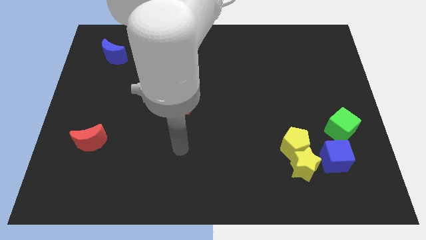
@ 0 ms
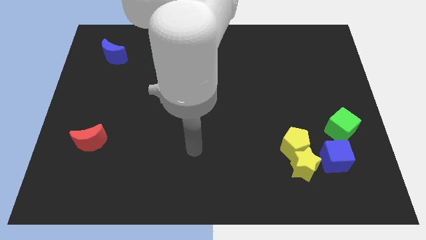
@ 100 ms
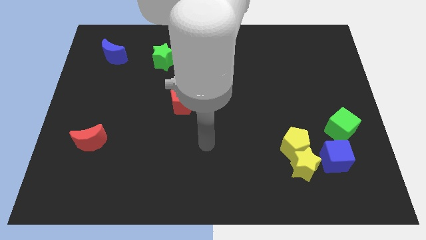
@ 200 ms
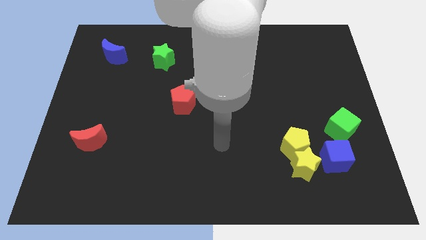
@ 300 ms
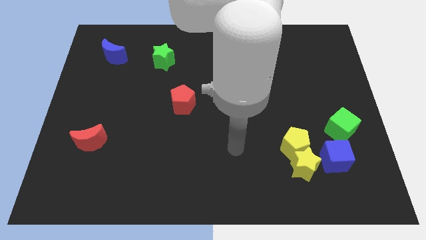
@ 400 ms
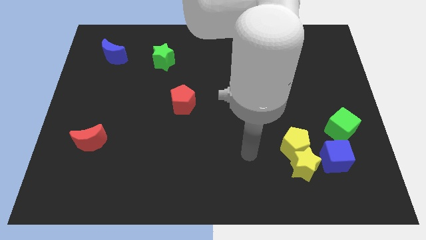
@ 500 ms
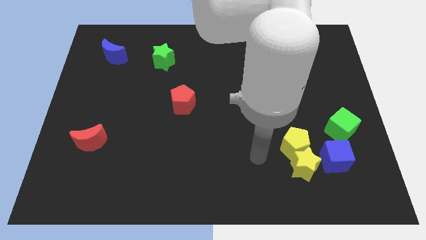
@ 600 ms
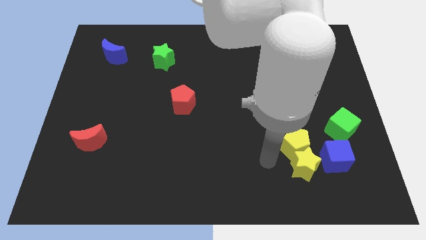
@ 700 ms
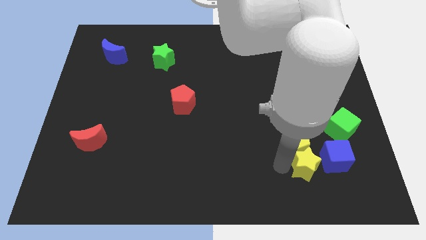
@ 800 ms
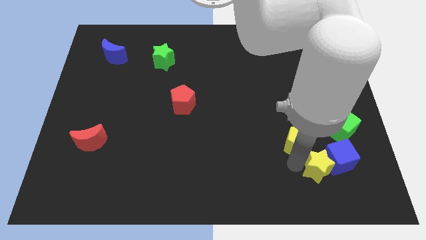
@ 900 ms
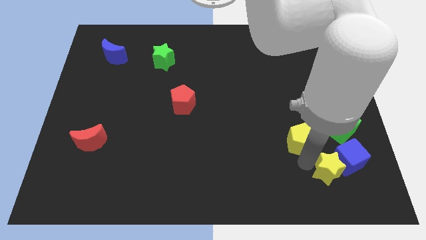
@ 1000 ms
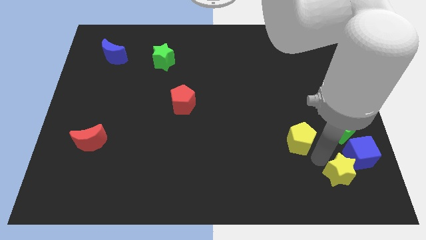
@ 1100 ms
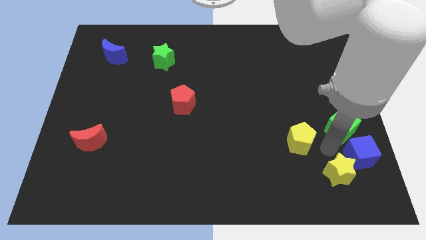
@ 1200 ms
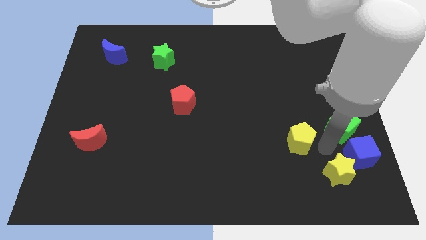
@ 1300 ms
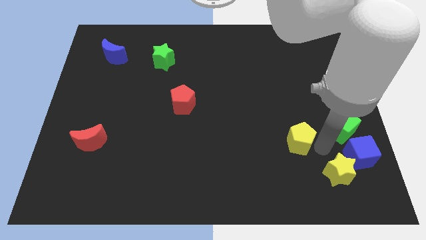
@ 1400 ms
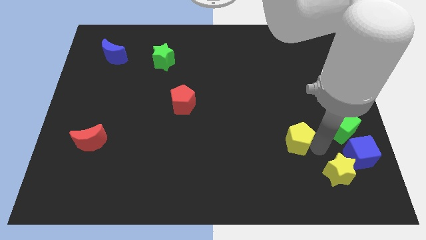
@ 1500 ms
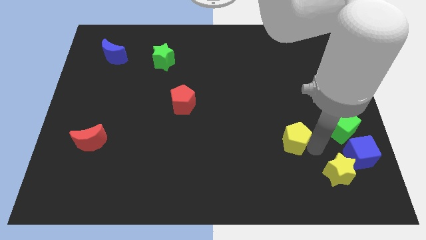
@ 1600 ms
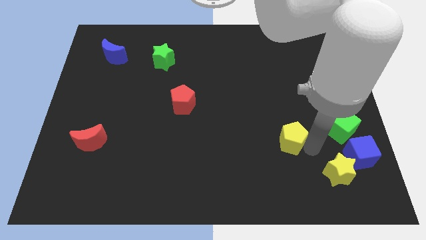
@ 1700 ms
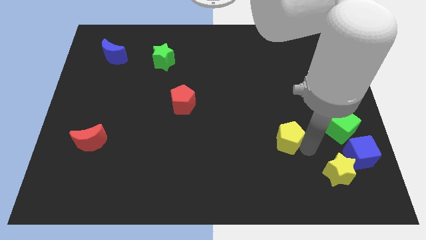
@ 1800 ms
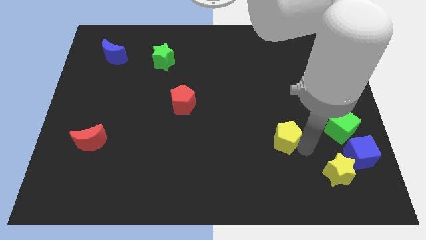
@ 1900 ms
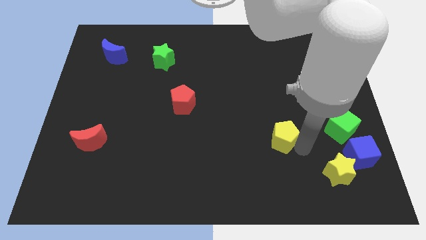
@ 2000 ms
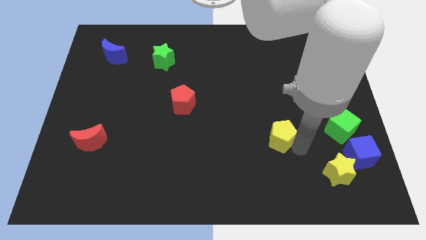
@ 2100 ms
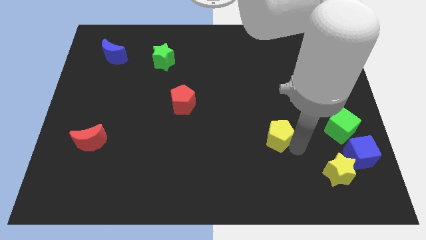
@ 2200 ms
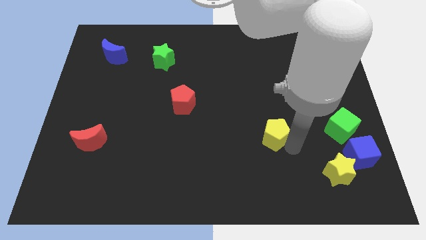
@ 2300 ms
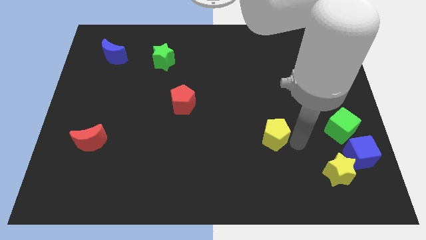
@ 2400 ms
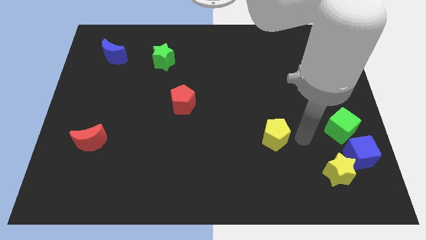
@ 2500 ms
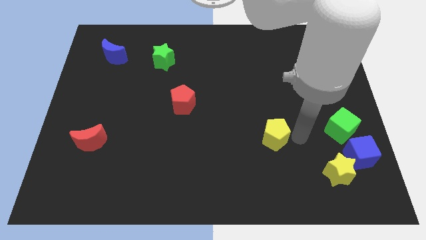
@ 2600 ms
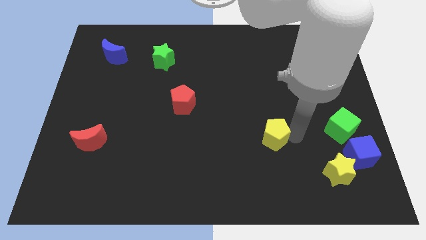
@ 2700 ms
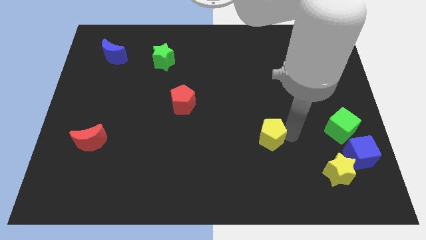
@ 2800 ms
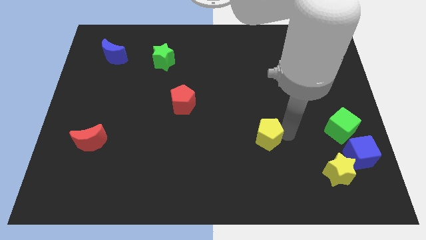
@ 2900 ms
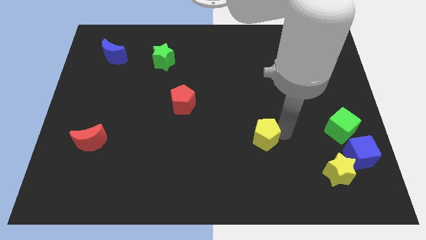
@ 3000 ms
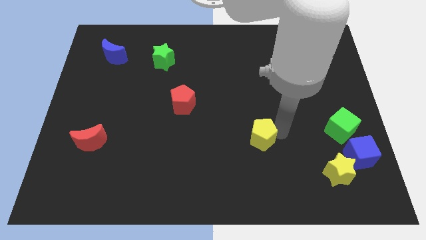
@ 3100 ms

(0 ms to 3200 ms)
slightly push the yellow pentagon left

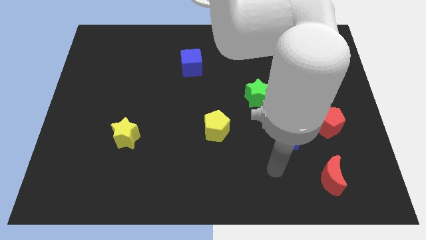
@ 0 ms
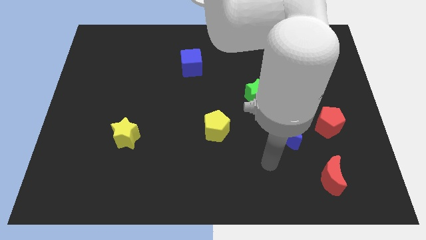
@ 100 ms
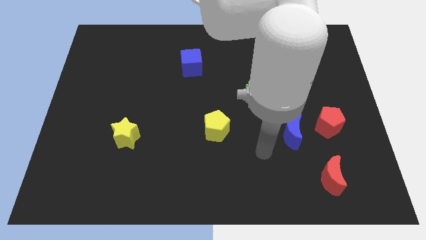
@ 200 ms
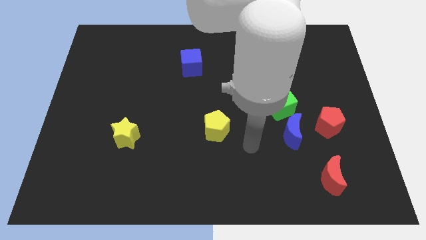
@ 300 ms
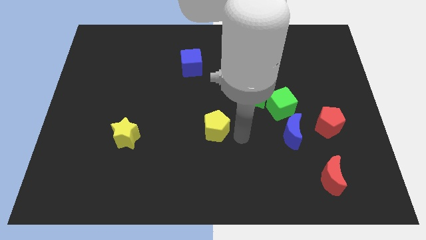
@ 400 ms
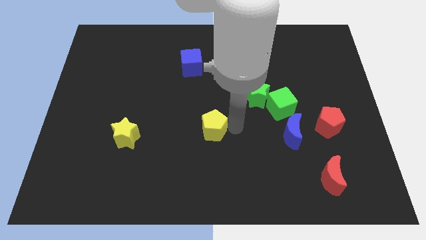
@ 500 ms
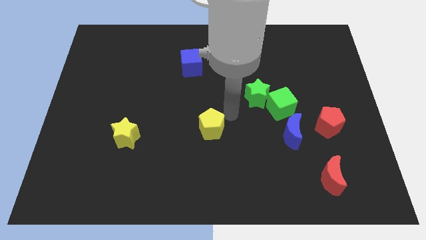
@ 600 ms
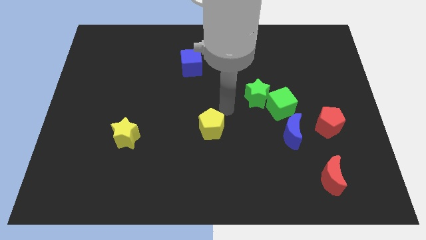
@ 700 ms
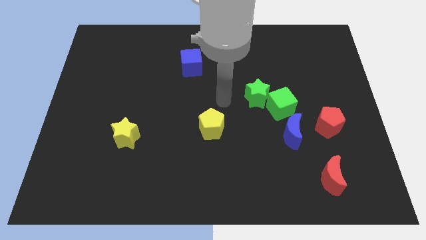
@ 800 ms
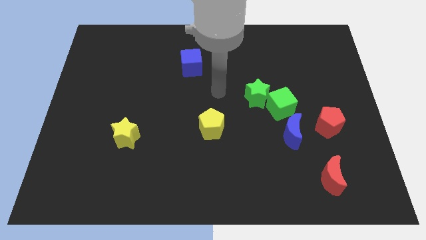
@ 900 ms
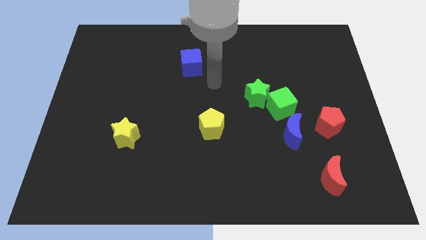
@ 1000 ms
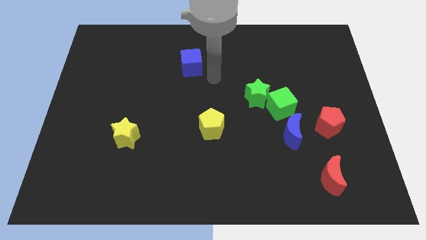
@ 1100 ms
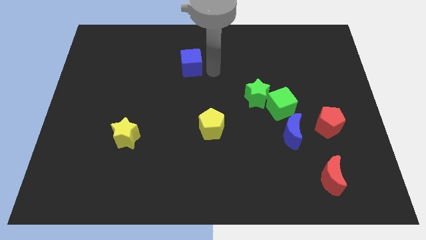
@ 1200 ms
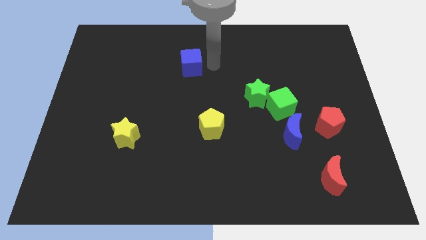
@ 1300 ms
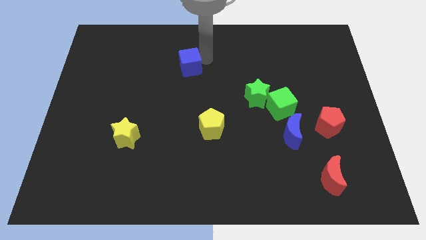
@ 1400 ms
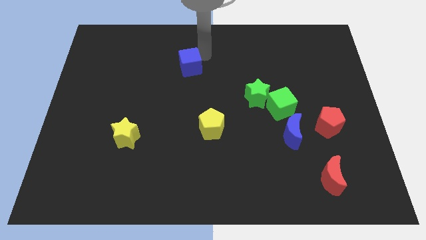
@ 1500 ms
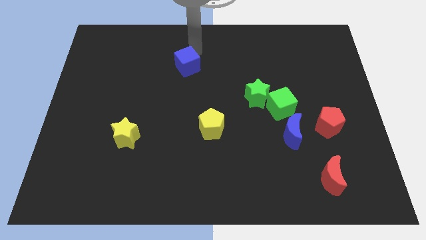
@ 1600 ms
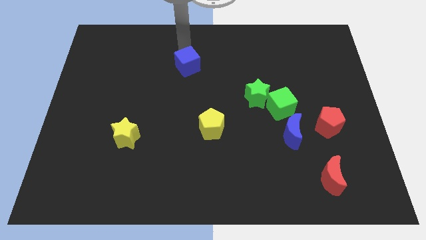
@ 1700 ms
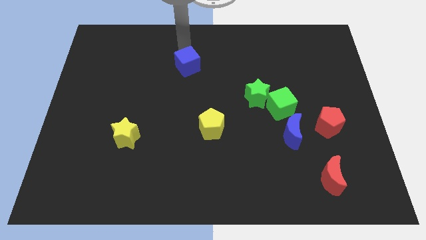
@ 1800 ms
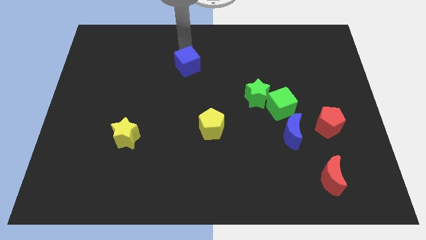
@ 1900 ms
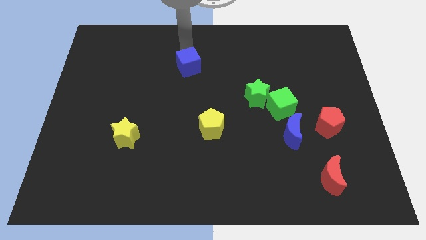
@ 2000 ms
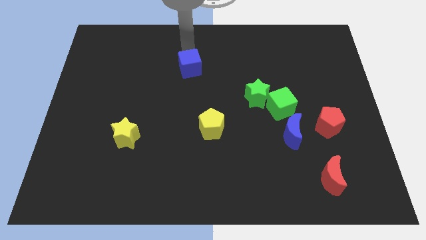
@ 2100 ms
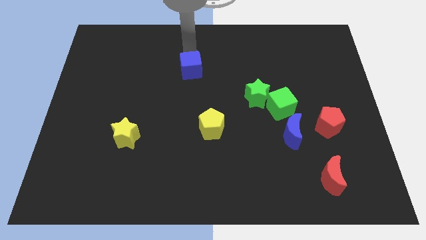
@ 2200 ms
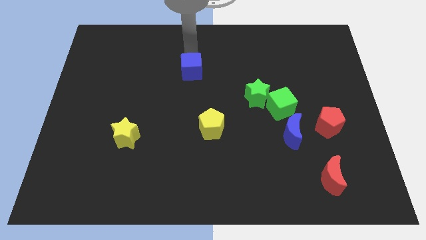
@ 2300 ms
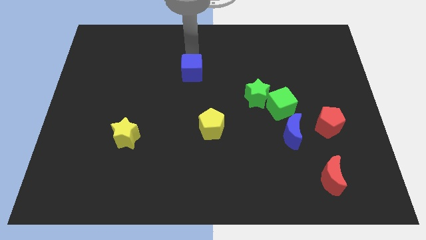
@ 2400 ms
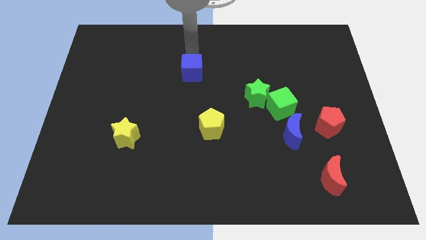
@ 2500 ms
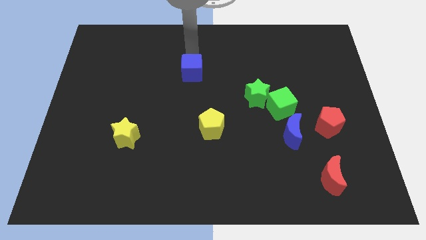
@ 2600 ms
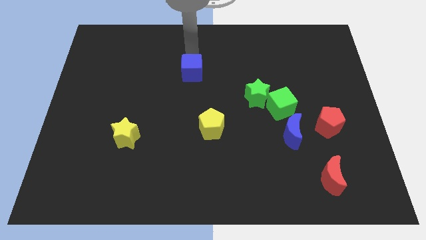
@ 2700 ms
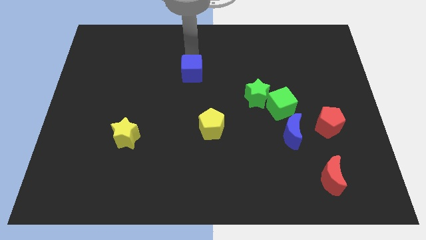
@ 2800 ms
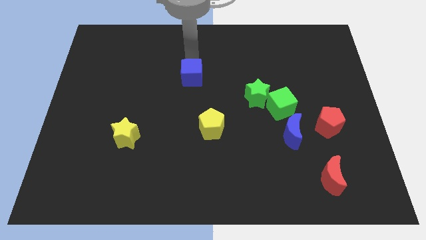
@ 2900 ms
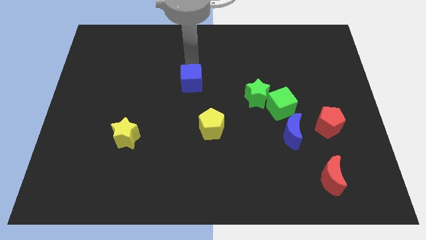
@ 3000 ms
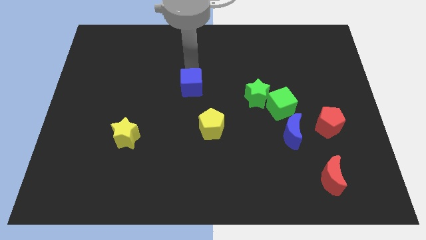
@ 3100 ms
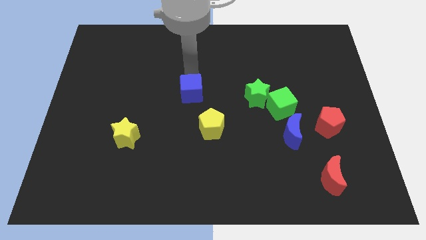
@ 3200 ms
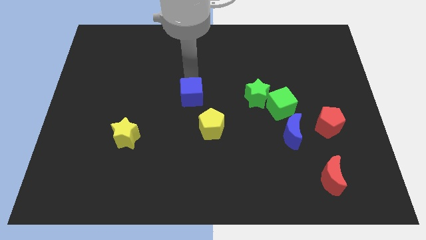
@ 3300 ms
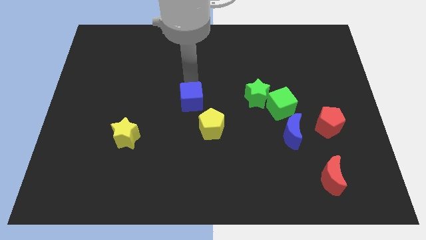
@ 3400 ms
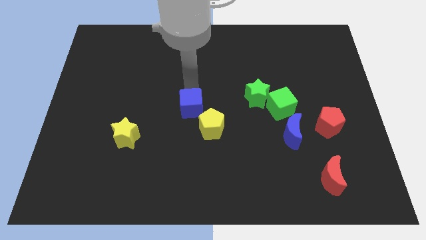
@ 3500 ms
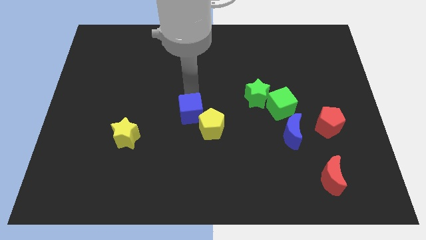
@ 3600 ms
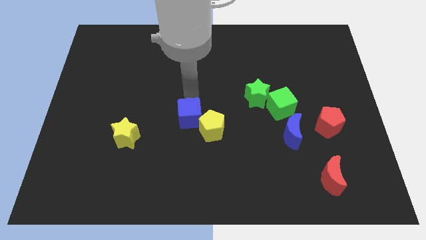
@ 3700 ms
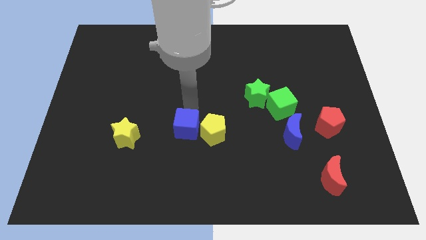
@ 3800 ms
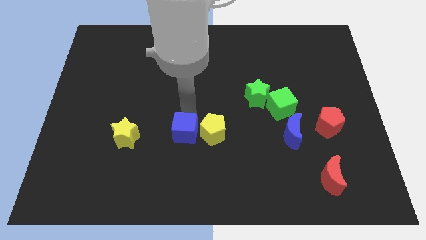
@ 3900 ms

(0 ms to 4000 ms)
slide the blue cube down

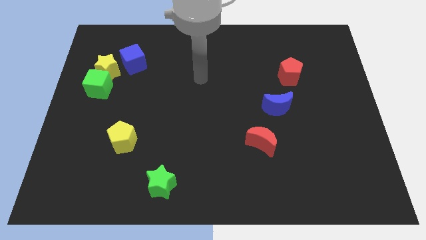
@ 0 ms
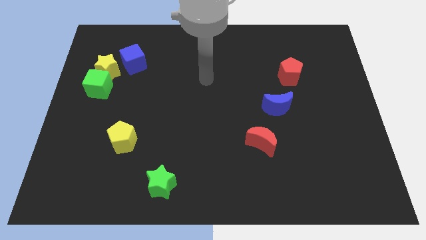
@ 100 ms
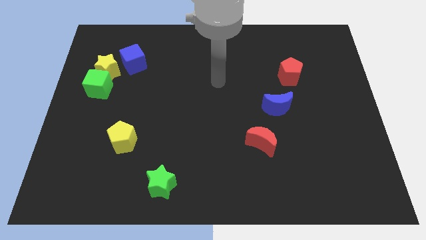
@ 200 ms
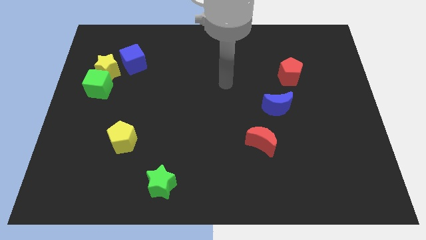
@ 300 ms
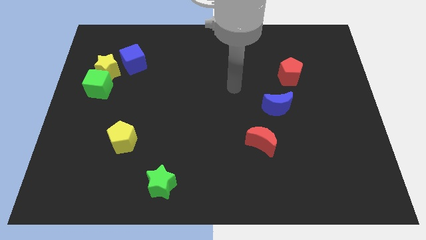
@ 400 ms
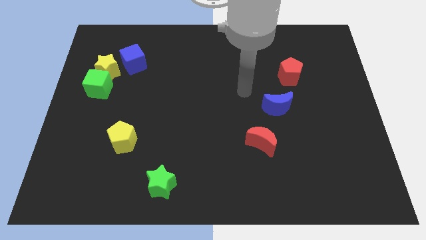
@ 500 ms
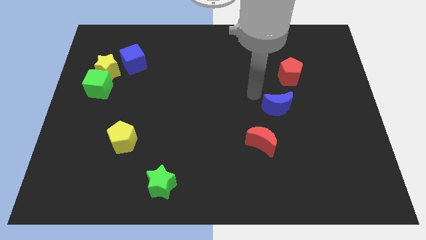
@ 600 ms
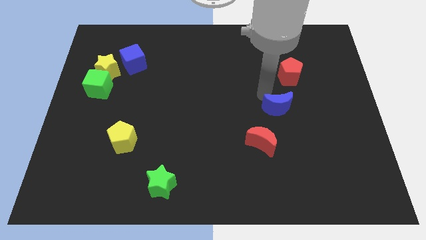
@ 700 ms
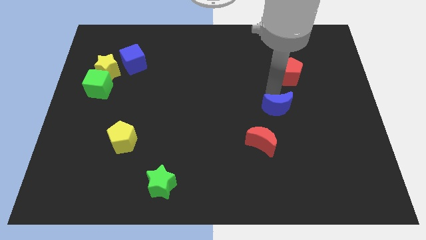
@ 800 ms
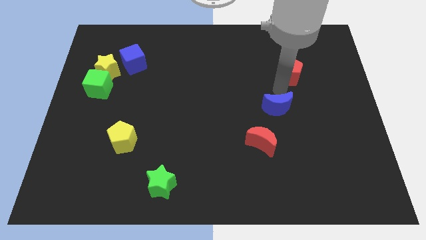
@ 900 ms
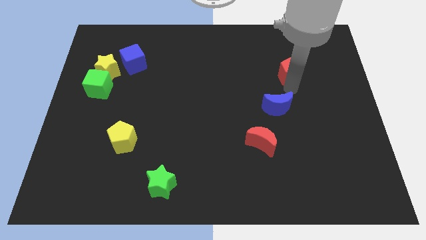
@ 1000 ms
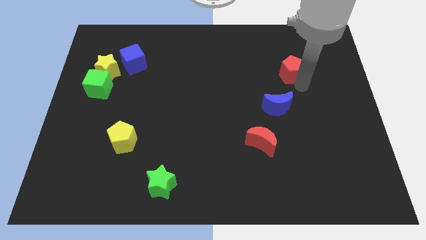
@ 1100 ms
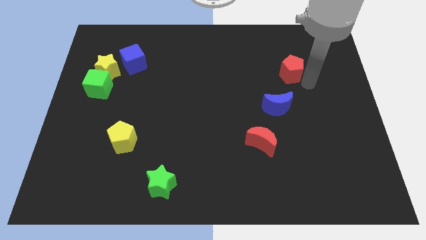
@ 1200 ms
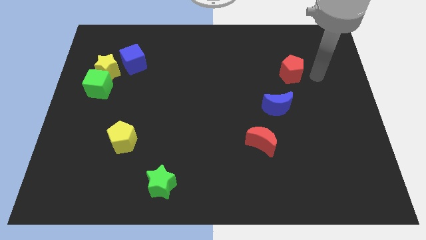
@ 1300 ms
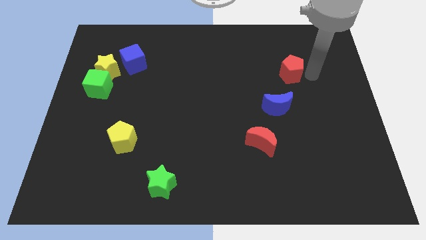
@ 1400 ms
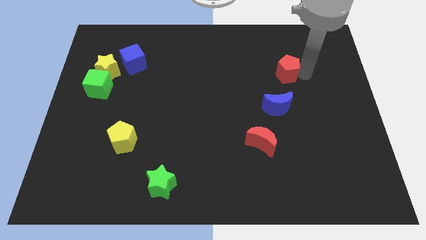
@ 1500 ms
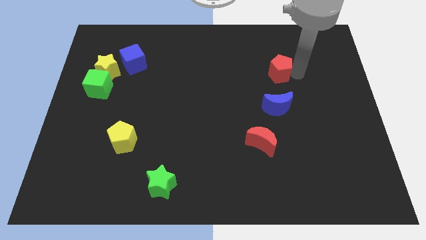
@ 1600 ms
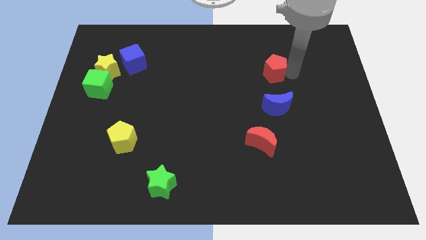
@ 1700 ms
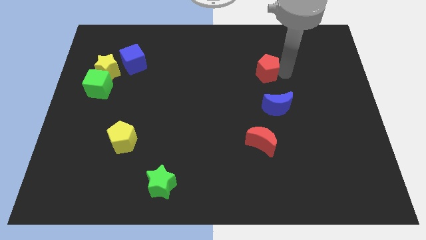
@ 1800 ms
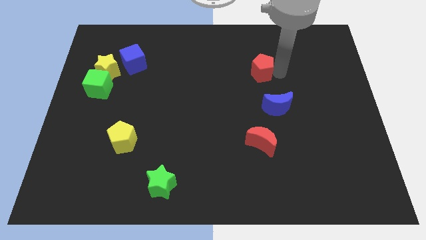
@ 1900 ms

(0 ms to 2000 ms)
slightly push the red pentagon to the left
